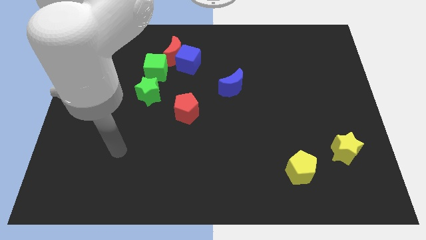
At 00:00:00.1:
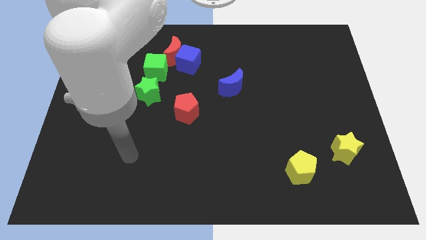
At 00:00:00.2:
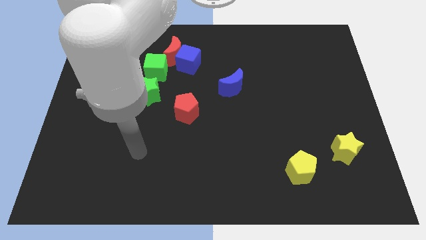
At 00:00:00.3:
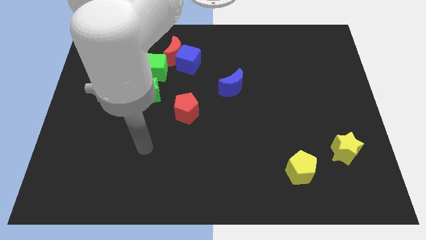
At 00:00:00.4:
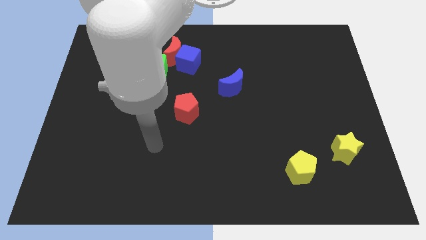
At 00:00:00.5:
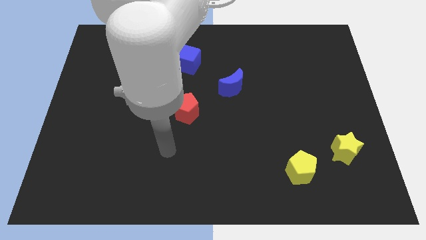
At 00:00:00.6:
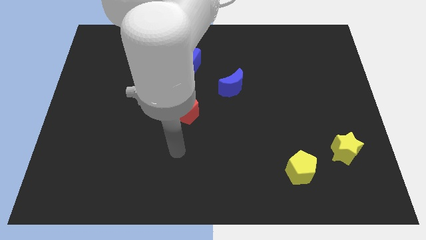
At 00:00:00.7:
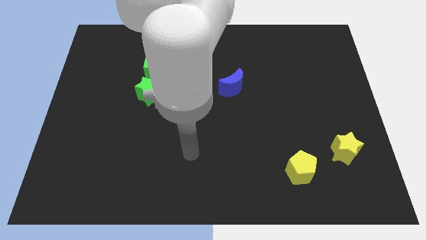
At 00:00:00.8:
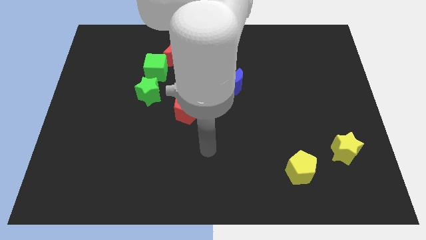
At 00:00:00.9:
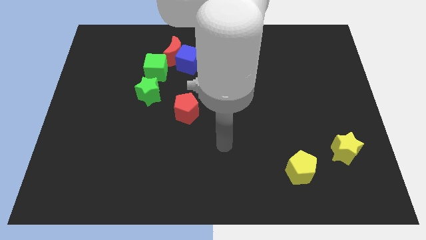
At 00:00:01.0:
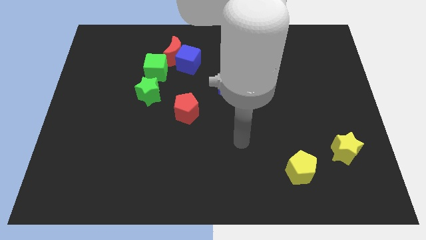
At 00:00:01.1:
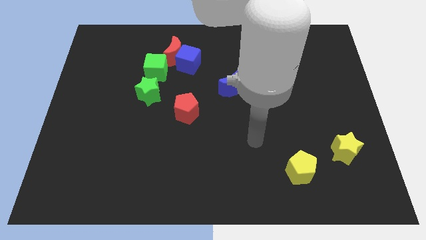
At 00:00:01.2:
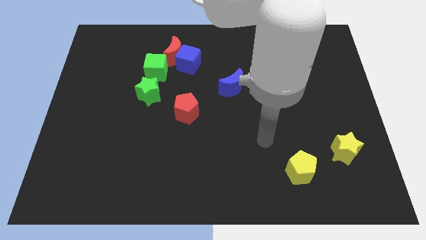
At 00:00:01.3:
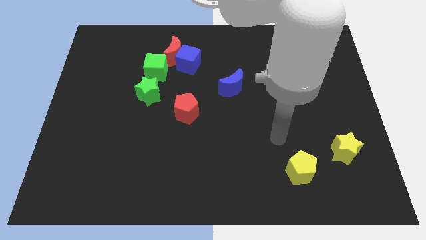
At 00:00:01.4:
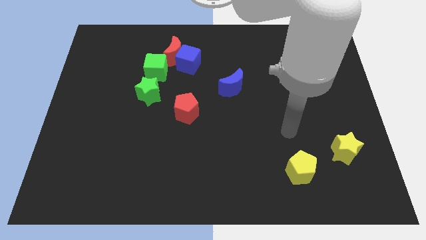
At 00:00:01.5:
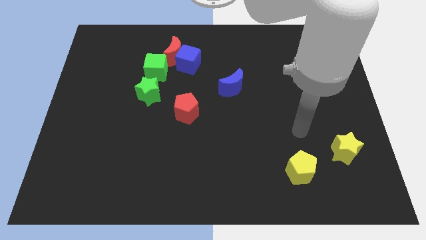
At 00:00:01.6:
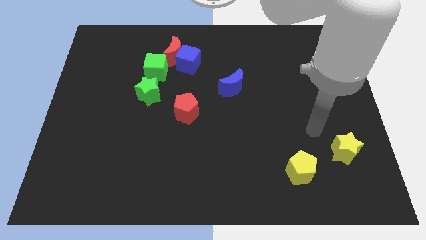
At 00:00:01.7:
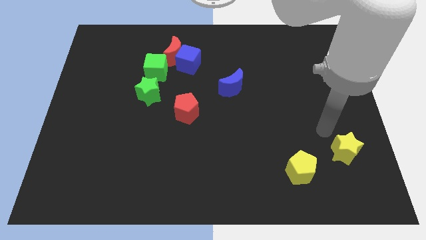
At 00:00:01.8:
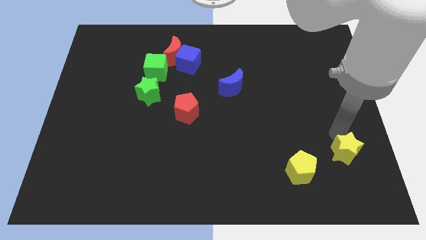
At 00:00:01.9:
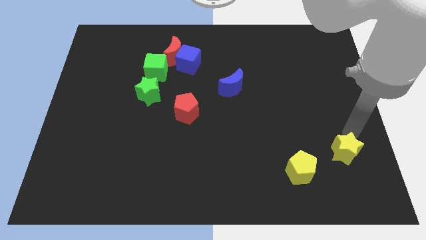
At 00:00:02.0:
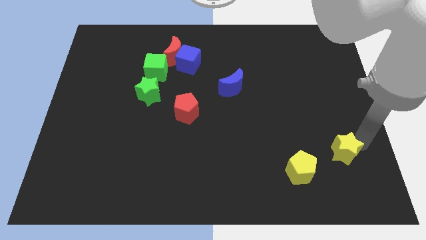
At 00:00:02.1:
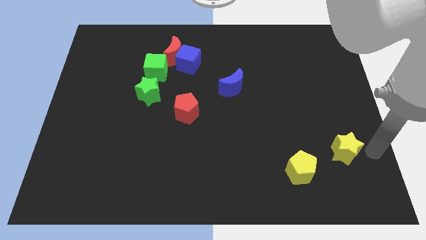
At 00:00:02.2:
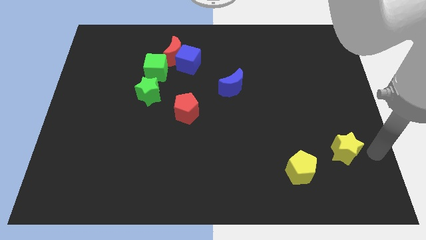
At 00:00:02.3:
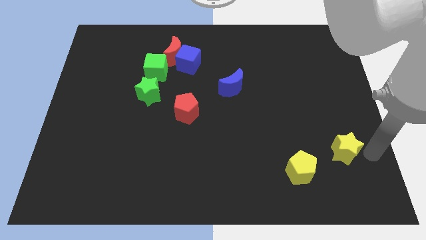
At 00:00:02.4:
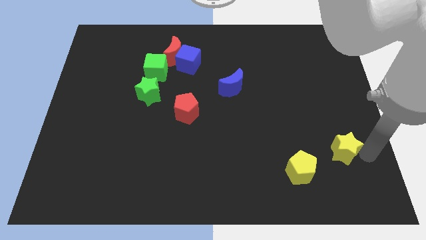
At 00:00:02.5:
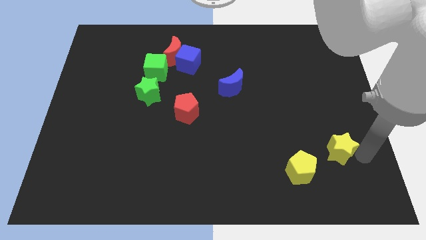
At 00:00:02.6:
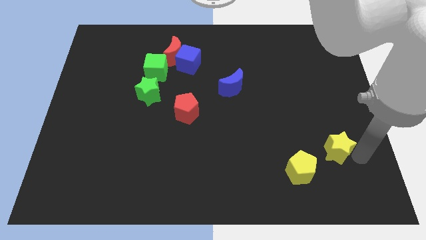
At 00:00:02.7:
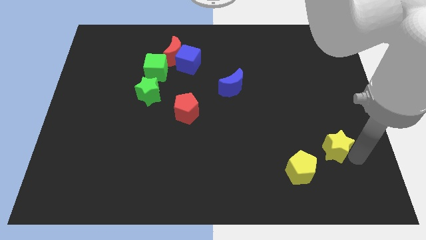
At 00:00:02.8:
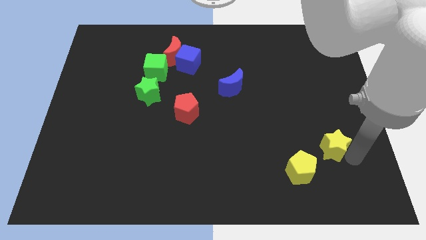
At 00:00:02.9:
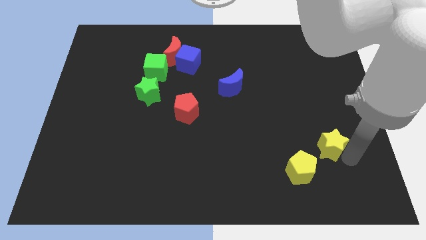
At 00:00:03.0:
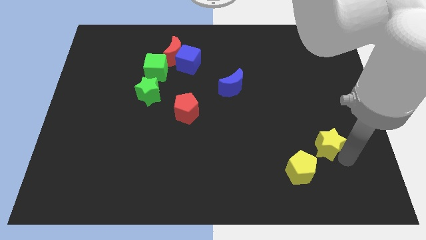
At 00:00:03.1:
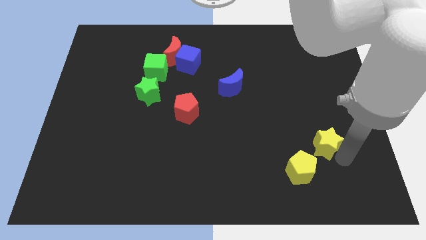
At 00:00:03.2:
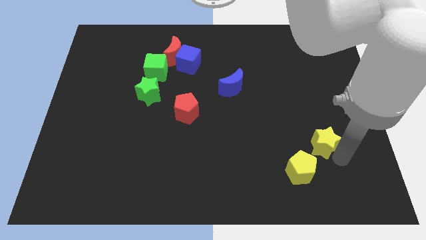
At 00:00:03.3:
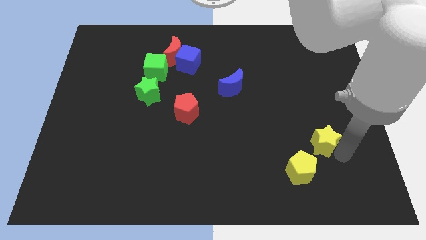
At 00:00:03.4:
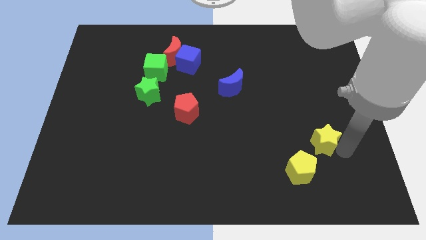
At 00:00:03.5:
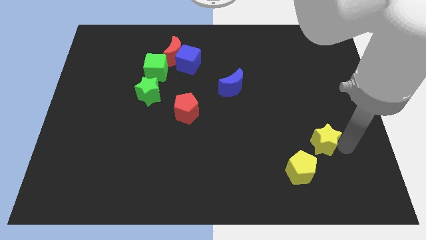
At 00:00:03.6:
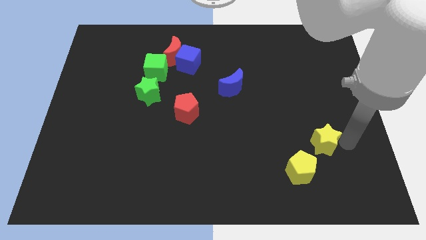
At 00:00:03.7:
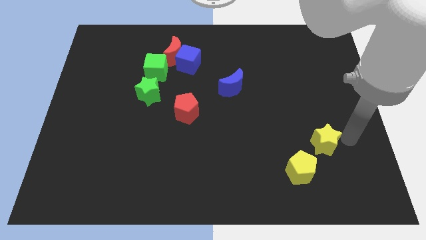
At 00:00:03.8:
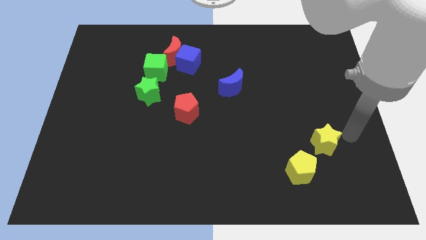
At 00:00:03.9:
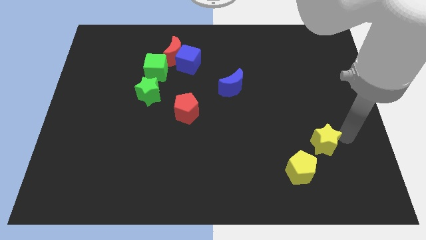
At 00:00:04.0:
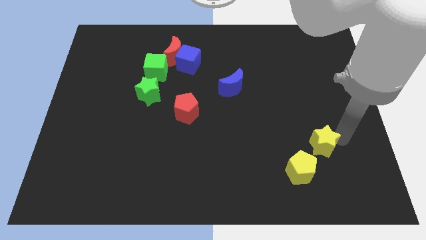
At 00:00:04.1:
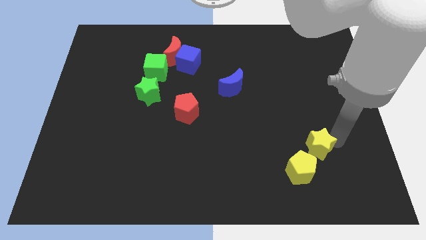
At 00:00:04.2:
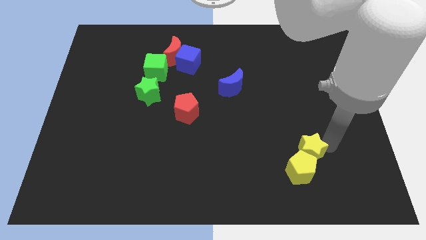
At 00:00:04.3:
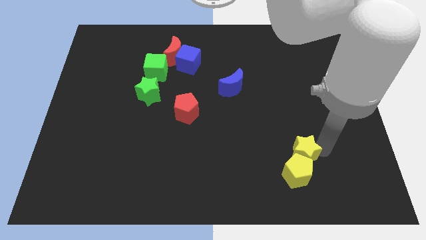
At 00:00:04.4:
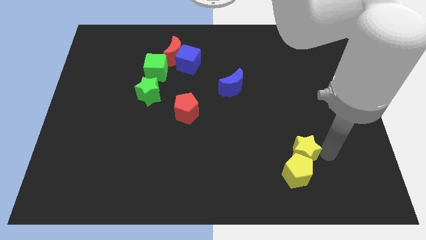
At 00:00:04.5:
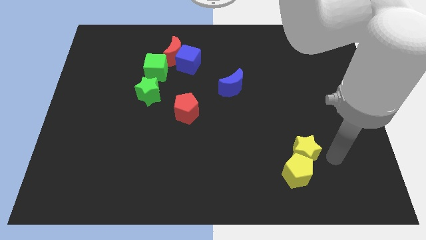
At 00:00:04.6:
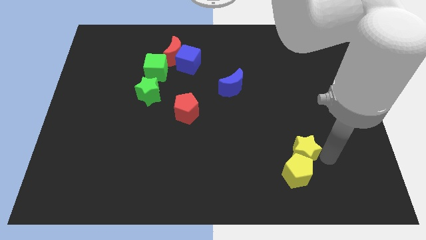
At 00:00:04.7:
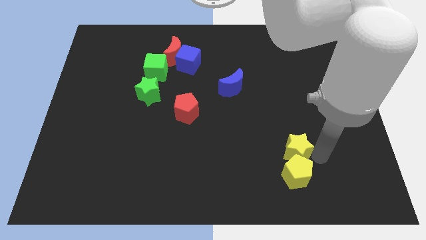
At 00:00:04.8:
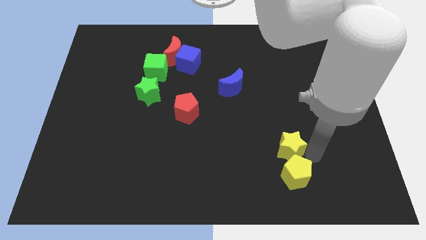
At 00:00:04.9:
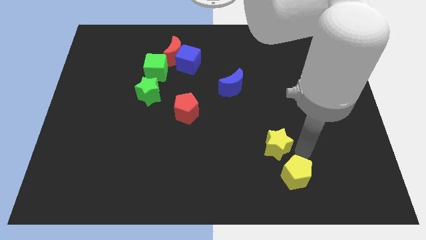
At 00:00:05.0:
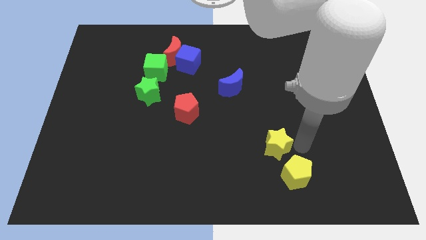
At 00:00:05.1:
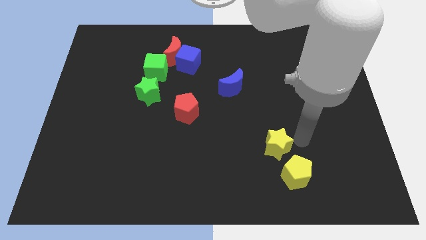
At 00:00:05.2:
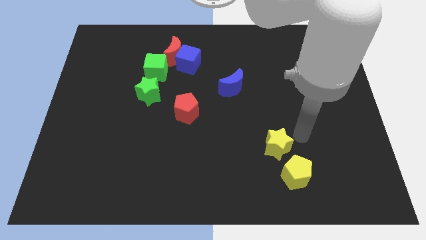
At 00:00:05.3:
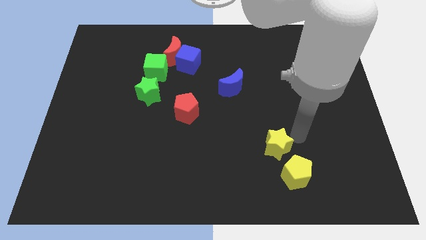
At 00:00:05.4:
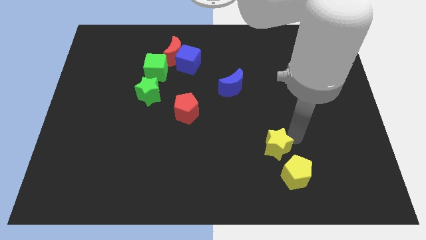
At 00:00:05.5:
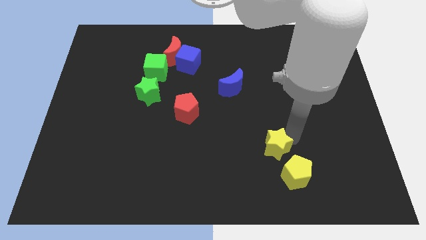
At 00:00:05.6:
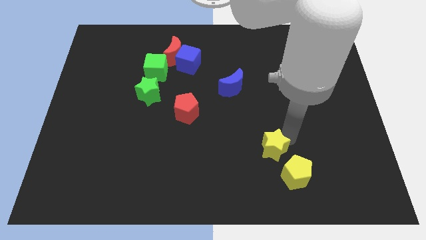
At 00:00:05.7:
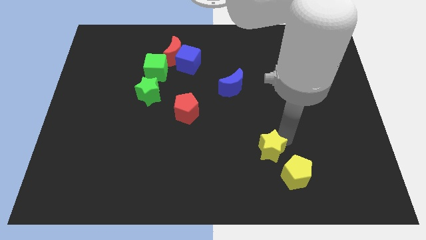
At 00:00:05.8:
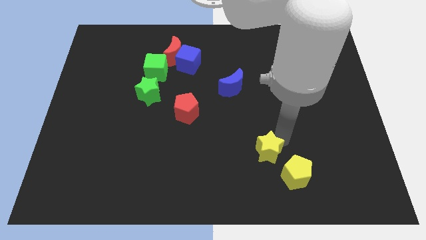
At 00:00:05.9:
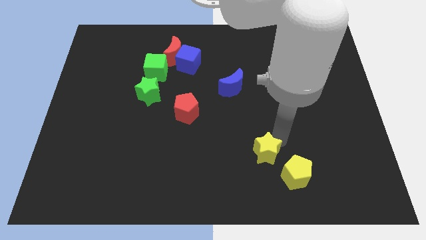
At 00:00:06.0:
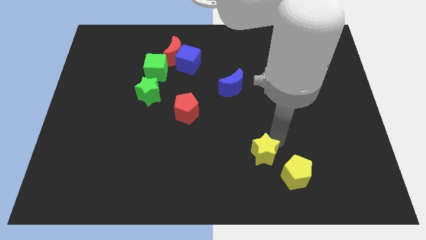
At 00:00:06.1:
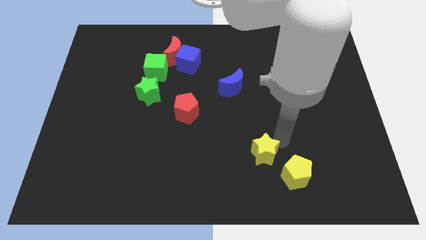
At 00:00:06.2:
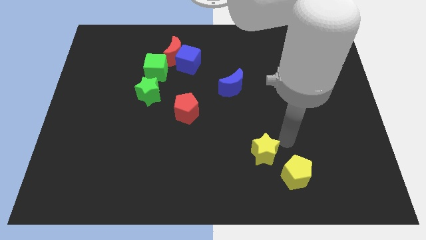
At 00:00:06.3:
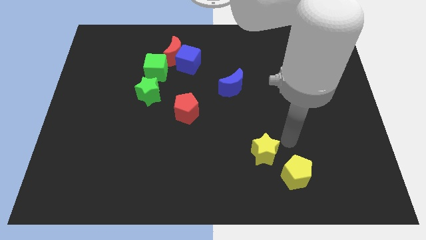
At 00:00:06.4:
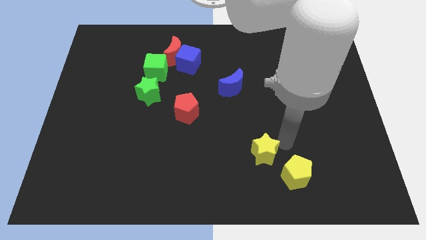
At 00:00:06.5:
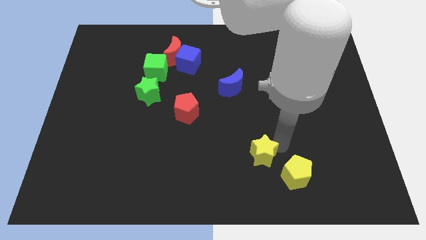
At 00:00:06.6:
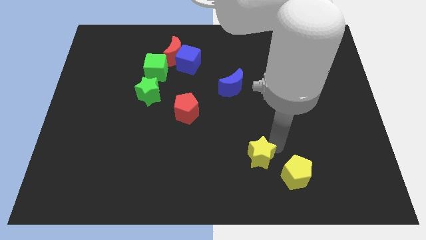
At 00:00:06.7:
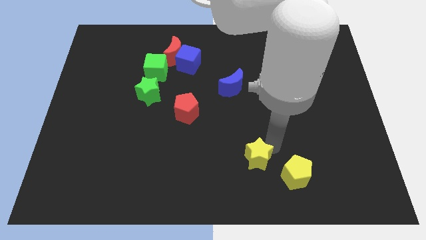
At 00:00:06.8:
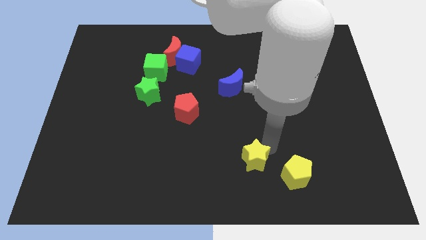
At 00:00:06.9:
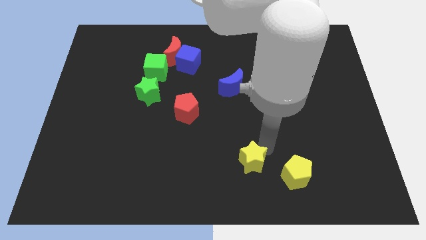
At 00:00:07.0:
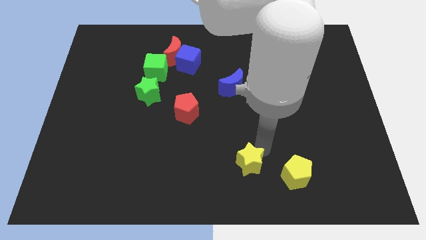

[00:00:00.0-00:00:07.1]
move the yellow star to the bottom side
